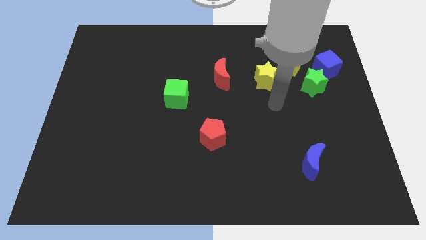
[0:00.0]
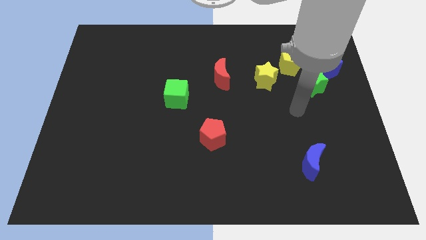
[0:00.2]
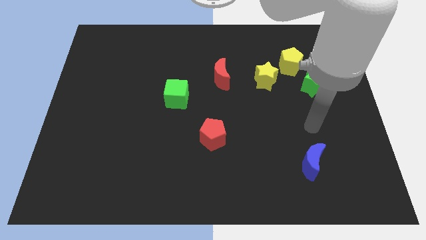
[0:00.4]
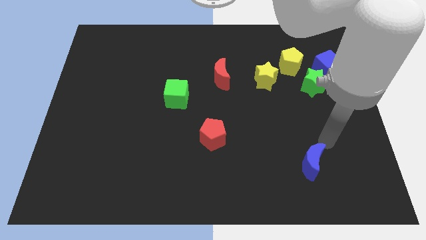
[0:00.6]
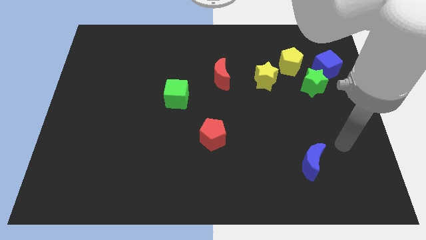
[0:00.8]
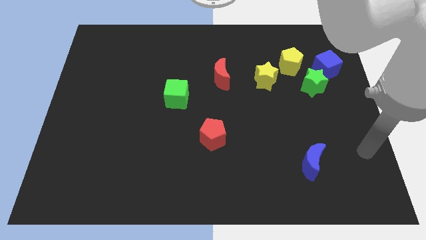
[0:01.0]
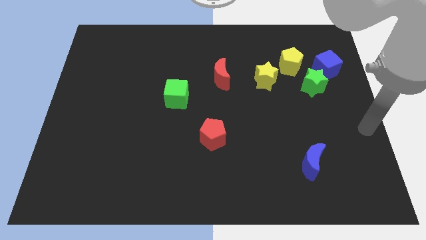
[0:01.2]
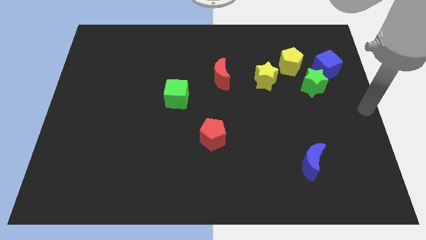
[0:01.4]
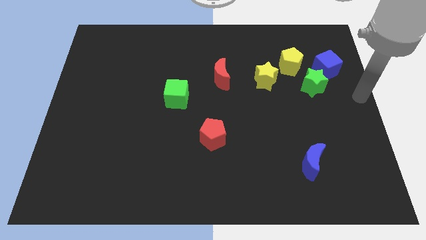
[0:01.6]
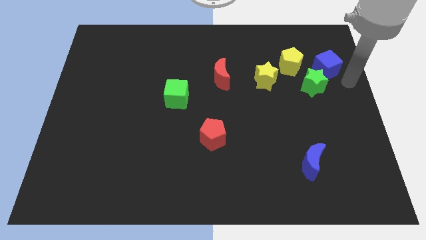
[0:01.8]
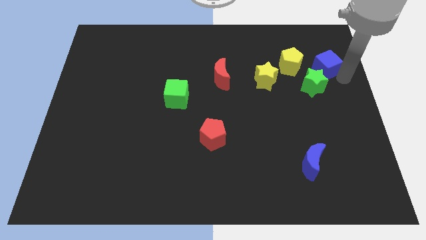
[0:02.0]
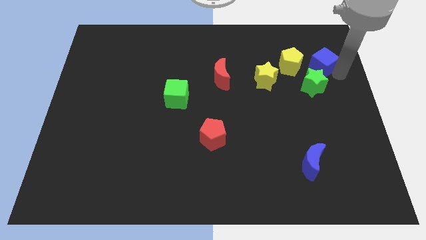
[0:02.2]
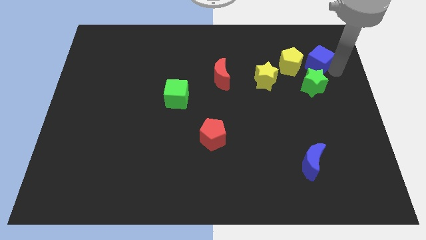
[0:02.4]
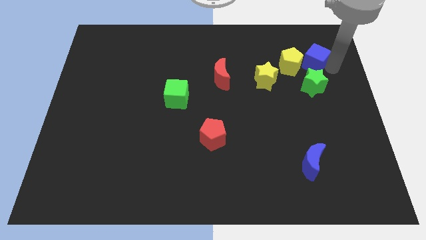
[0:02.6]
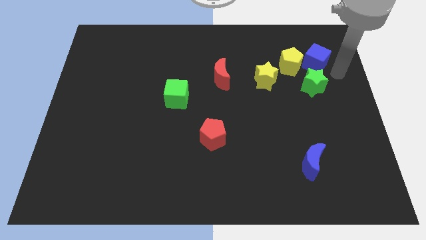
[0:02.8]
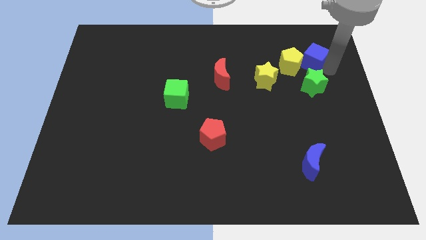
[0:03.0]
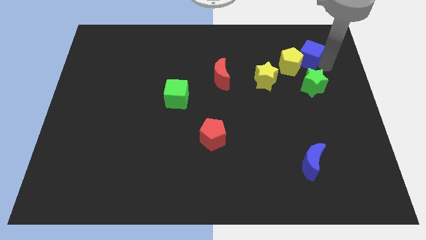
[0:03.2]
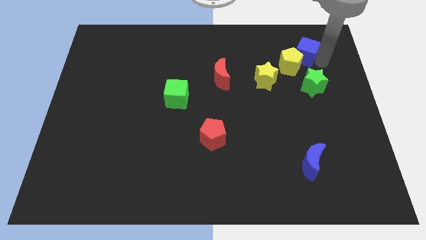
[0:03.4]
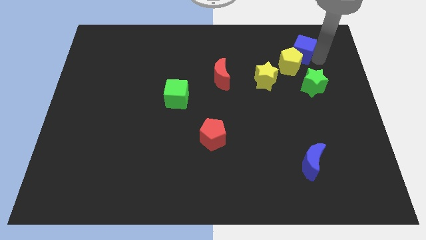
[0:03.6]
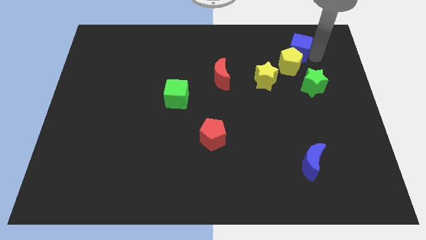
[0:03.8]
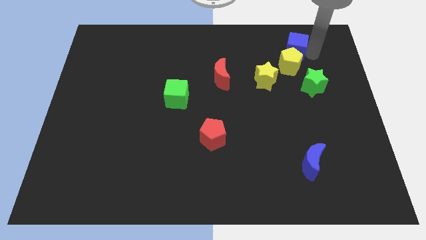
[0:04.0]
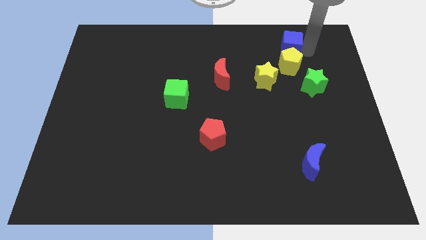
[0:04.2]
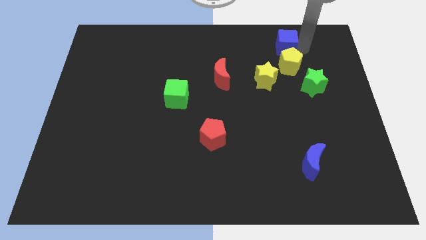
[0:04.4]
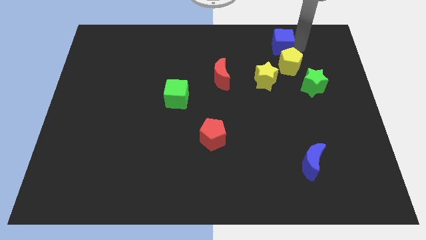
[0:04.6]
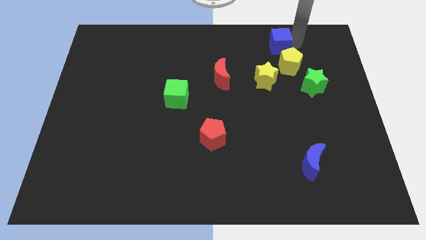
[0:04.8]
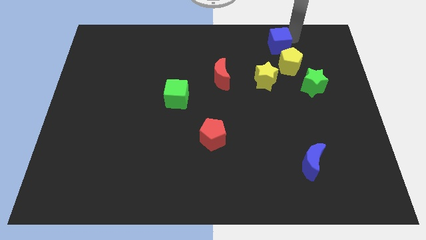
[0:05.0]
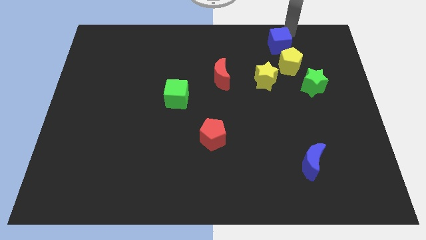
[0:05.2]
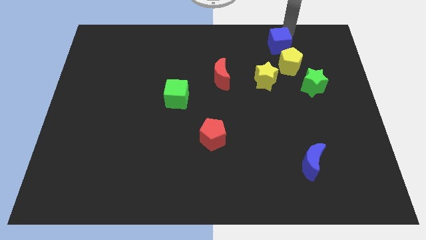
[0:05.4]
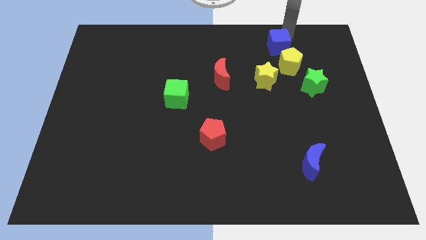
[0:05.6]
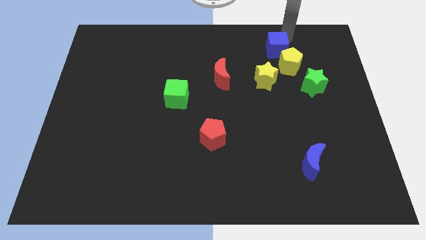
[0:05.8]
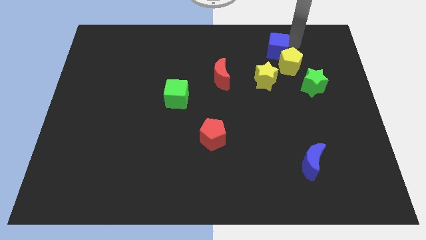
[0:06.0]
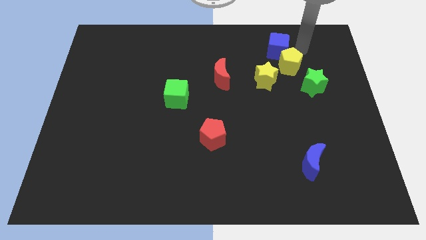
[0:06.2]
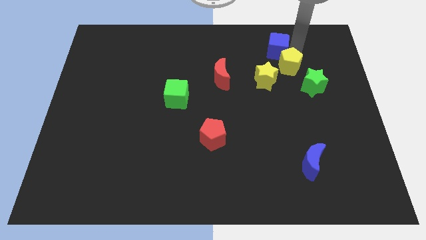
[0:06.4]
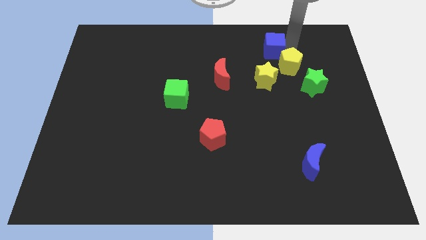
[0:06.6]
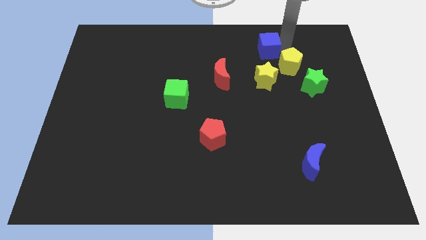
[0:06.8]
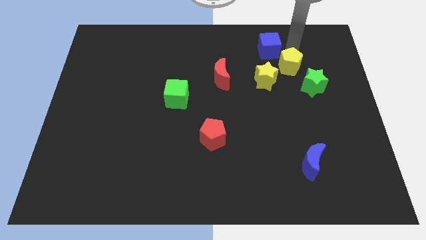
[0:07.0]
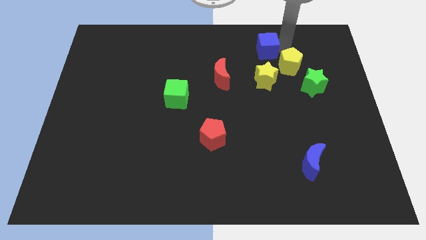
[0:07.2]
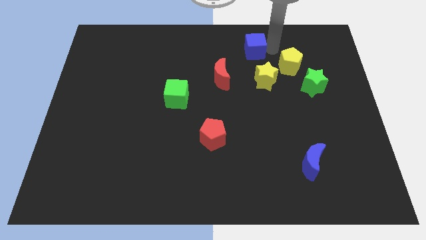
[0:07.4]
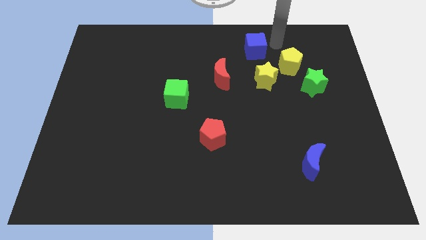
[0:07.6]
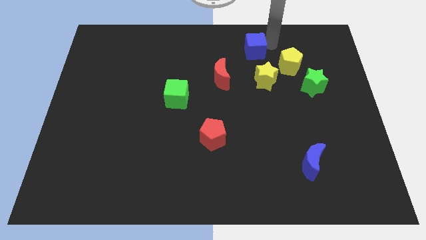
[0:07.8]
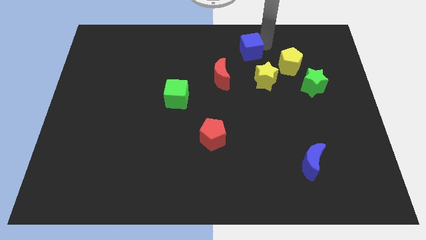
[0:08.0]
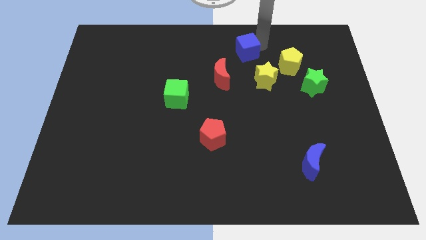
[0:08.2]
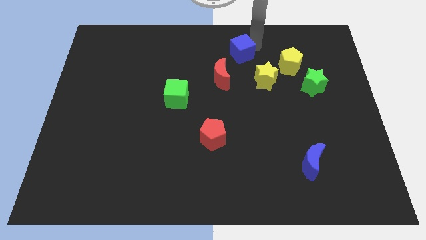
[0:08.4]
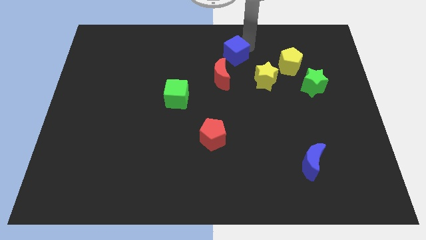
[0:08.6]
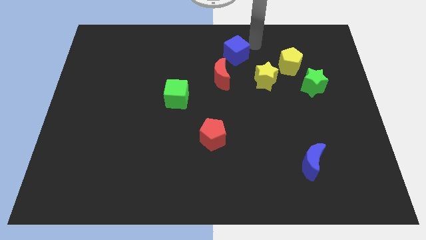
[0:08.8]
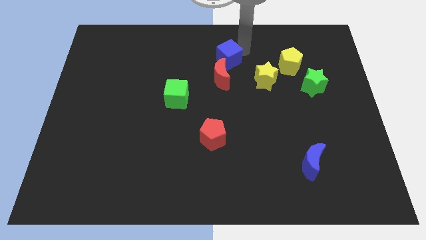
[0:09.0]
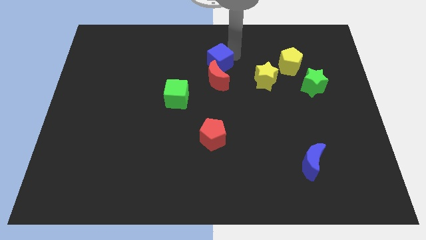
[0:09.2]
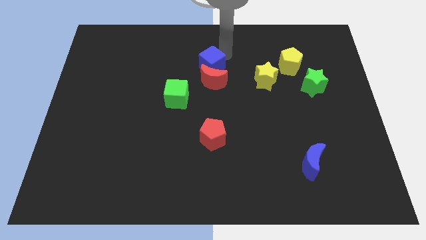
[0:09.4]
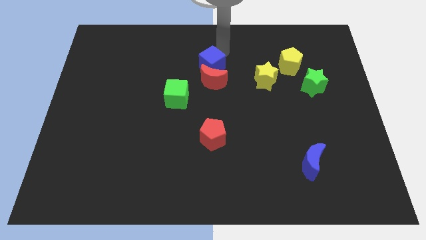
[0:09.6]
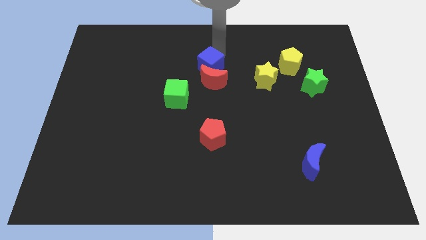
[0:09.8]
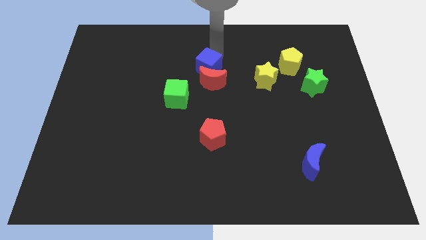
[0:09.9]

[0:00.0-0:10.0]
put the blue cube to the top right of the green cube

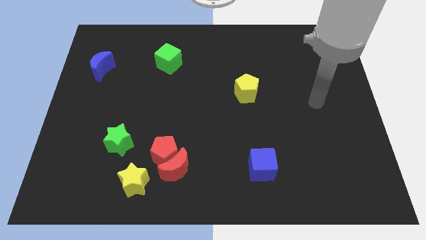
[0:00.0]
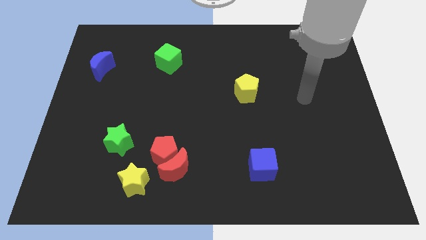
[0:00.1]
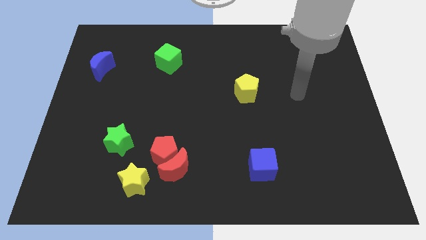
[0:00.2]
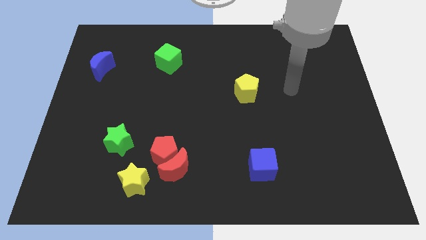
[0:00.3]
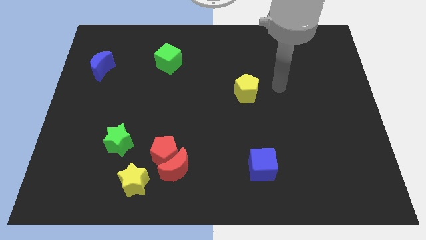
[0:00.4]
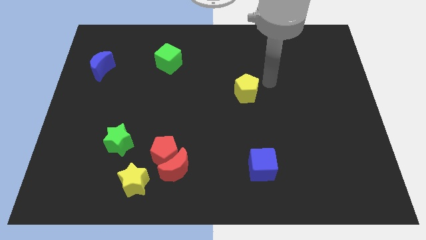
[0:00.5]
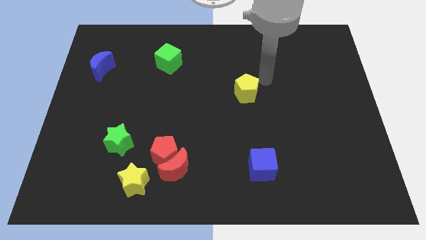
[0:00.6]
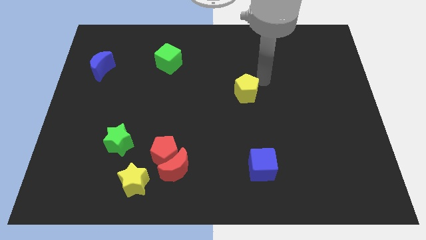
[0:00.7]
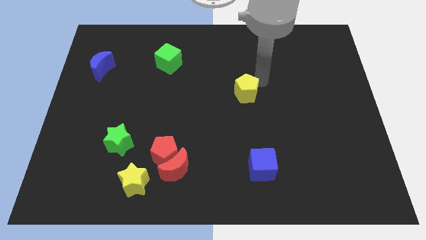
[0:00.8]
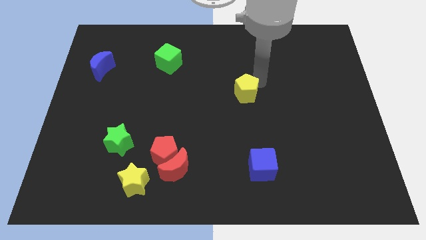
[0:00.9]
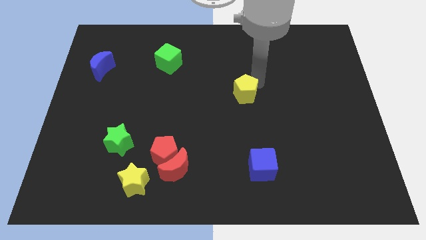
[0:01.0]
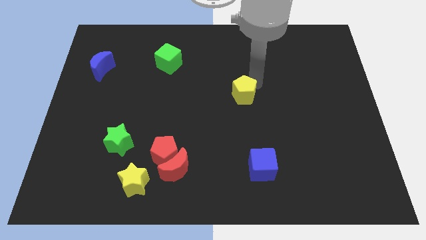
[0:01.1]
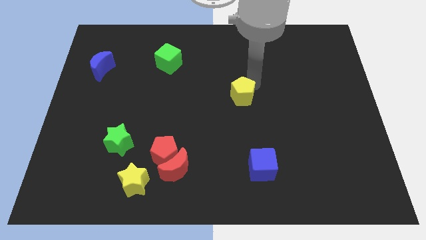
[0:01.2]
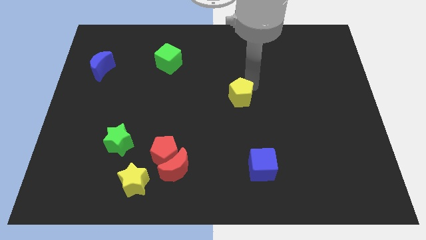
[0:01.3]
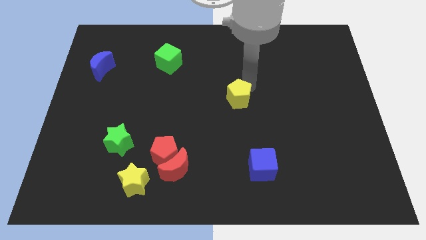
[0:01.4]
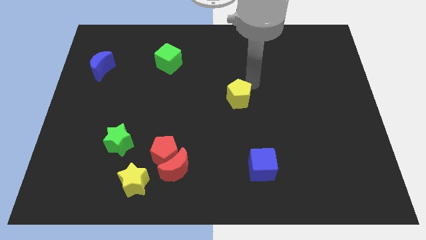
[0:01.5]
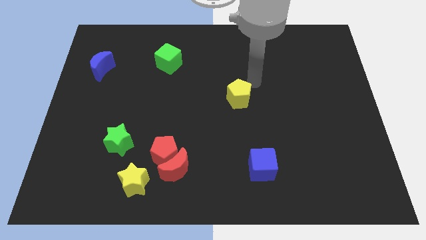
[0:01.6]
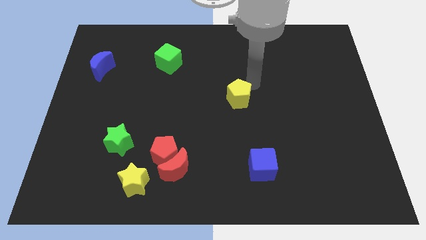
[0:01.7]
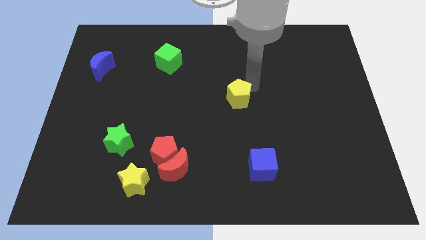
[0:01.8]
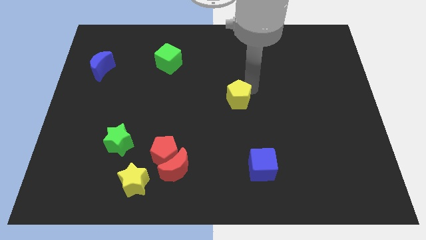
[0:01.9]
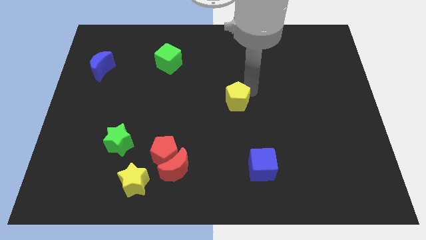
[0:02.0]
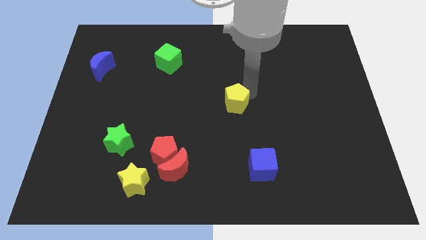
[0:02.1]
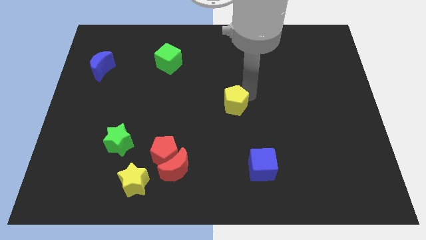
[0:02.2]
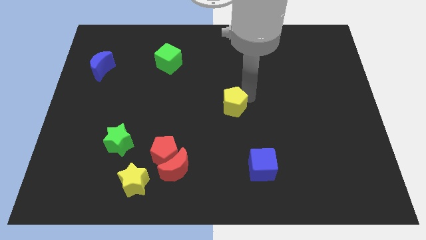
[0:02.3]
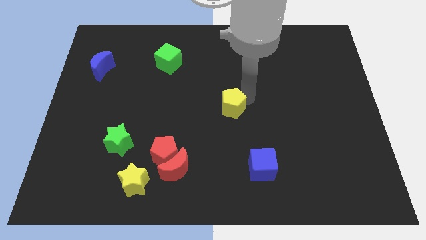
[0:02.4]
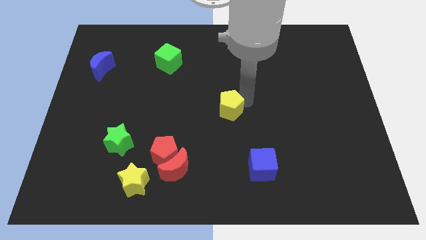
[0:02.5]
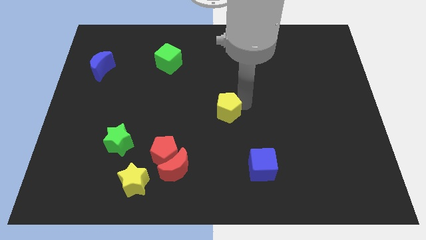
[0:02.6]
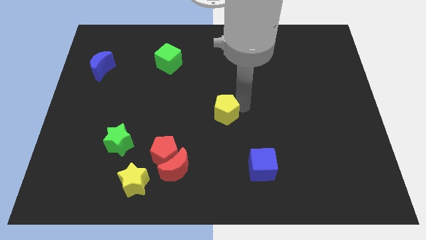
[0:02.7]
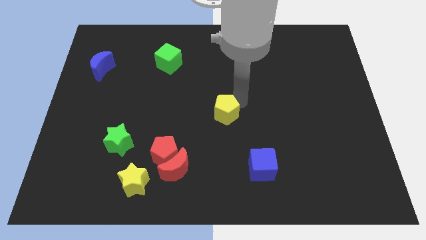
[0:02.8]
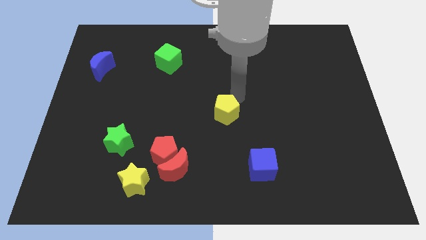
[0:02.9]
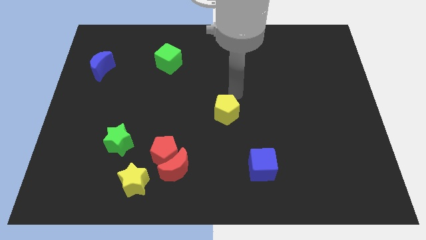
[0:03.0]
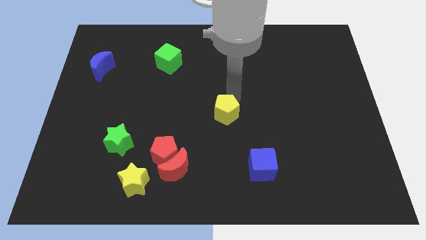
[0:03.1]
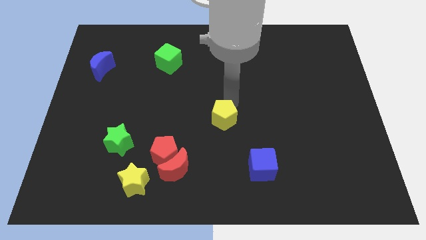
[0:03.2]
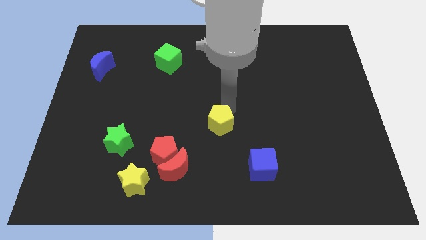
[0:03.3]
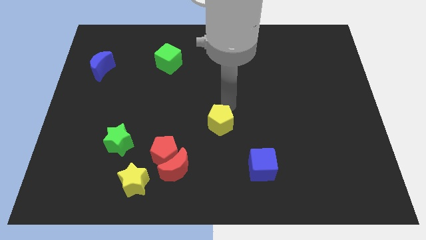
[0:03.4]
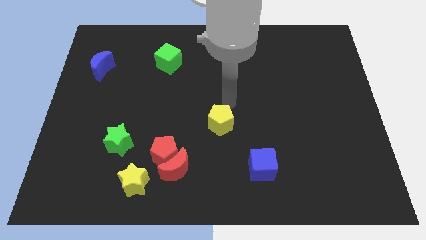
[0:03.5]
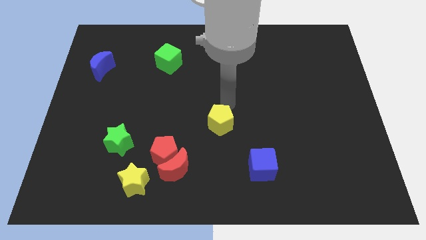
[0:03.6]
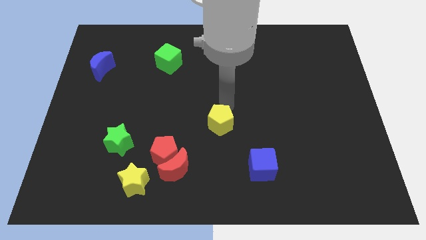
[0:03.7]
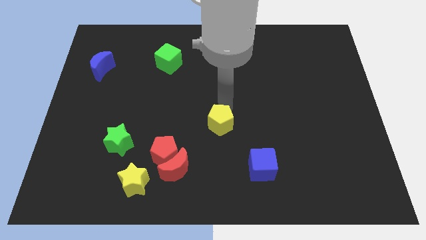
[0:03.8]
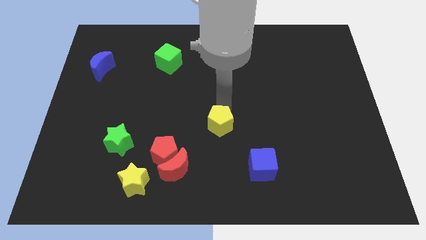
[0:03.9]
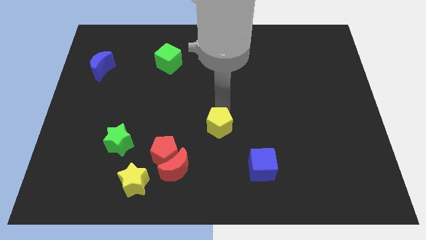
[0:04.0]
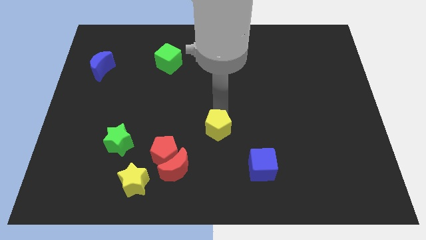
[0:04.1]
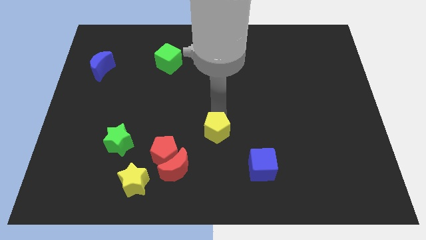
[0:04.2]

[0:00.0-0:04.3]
push the yellow pentagon diagonally up and to the right of the red moon
